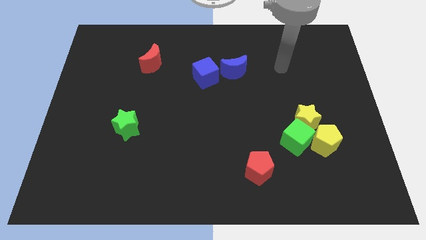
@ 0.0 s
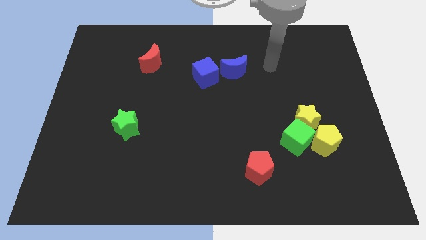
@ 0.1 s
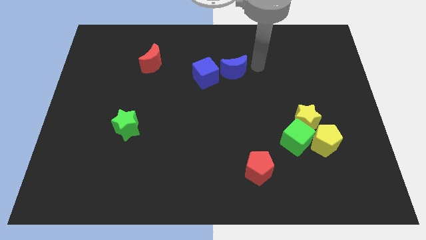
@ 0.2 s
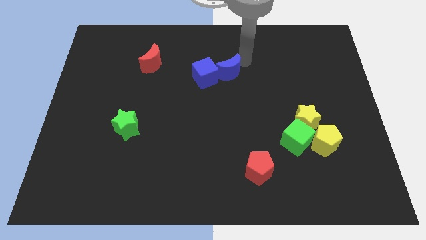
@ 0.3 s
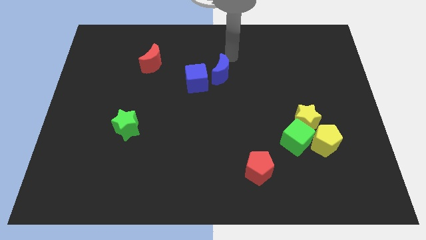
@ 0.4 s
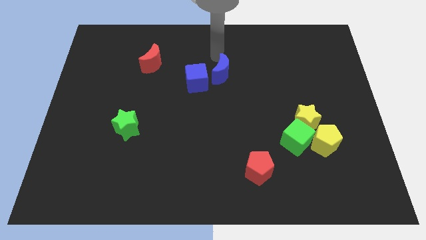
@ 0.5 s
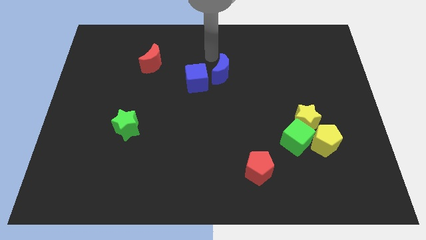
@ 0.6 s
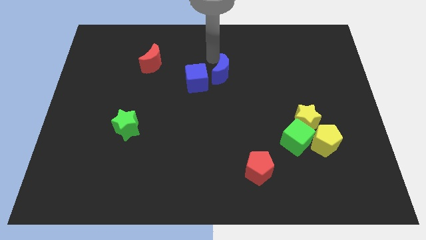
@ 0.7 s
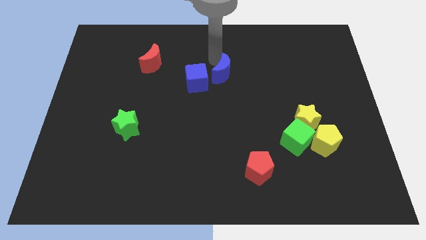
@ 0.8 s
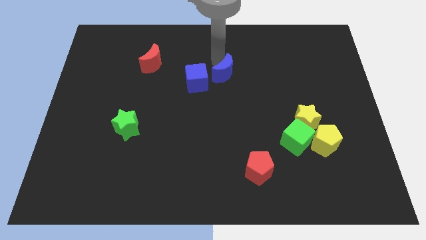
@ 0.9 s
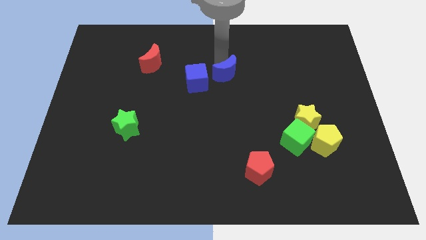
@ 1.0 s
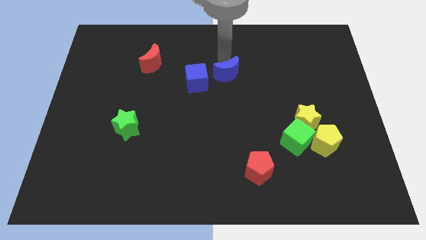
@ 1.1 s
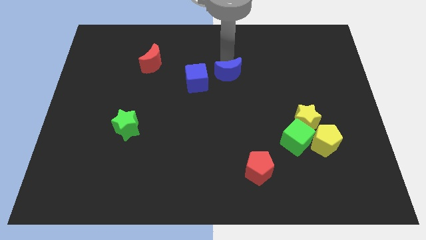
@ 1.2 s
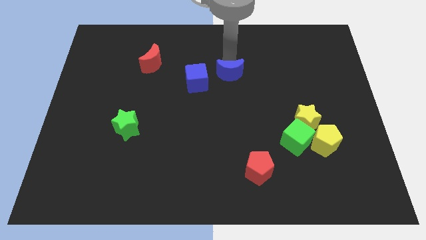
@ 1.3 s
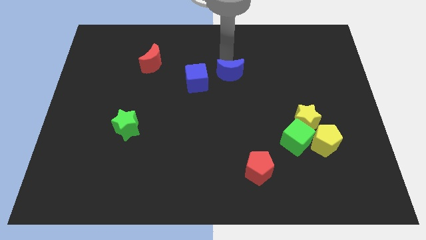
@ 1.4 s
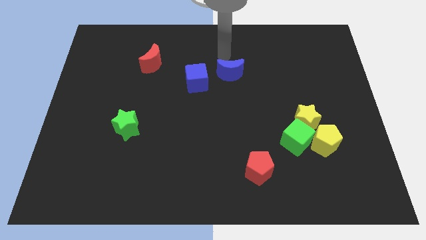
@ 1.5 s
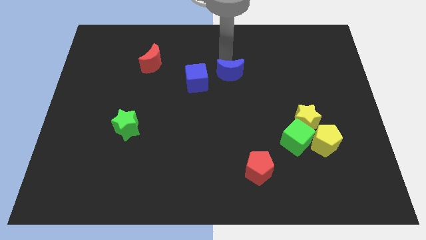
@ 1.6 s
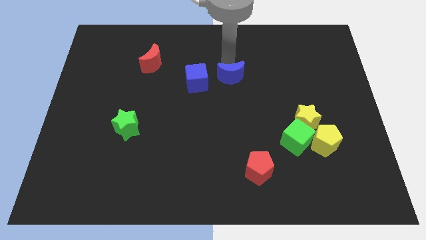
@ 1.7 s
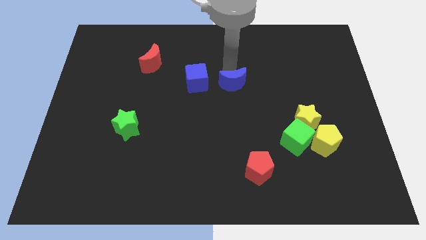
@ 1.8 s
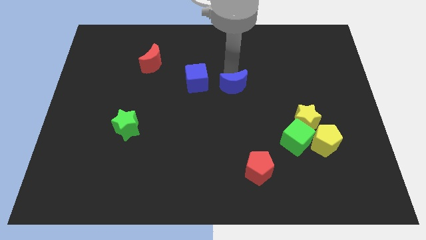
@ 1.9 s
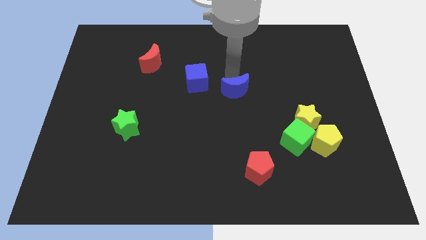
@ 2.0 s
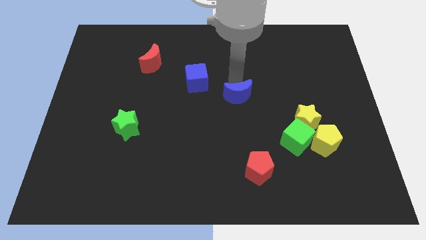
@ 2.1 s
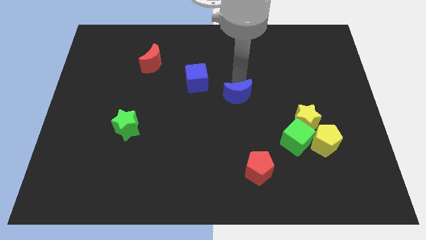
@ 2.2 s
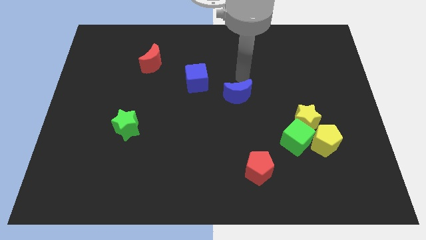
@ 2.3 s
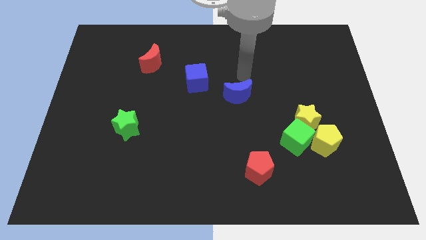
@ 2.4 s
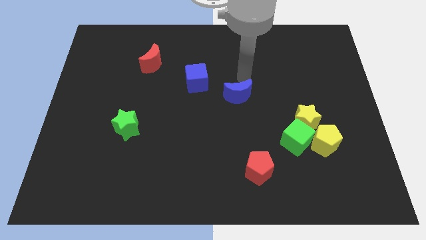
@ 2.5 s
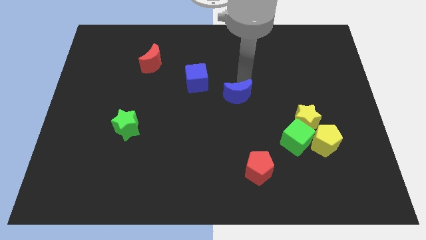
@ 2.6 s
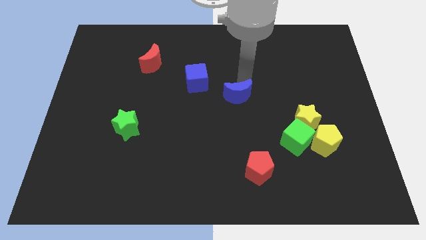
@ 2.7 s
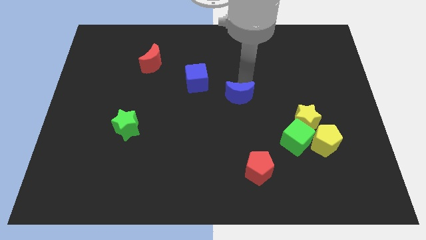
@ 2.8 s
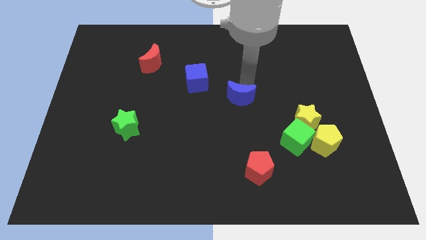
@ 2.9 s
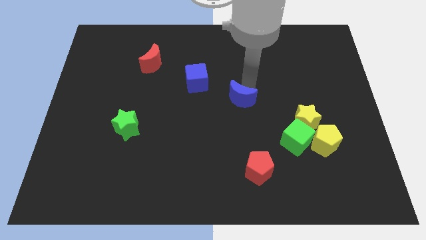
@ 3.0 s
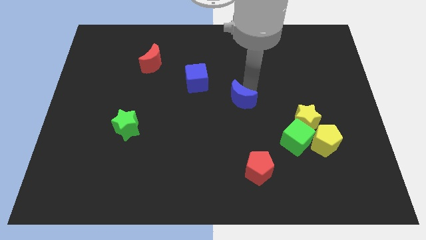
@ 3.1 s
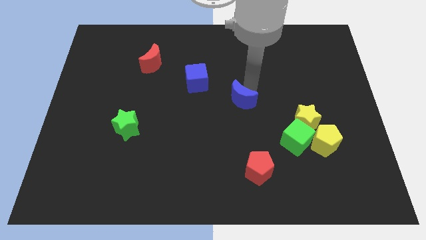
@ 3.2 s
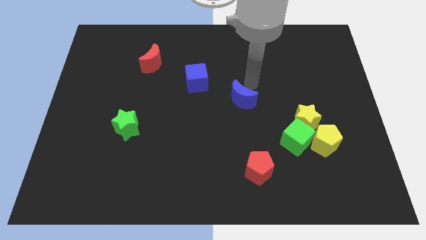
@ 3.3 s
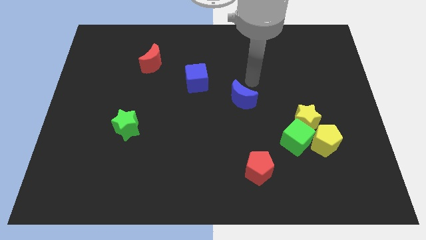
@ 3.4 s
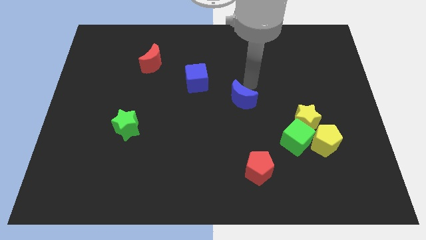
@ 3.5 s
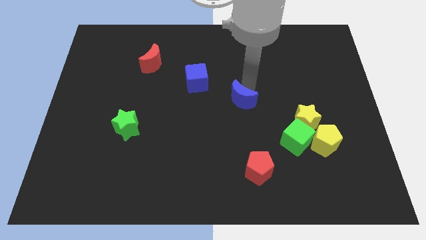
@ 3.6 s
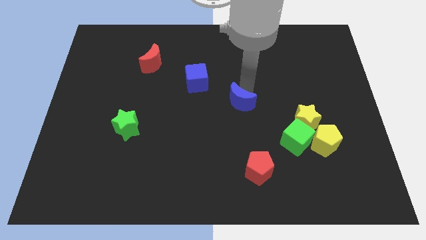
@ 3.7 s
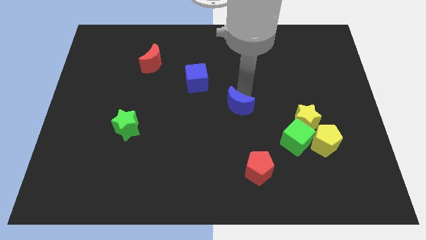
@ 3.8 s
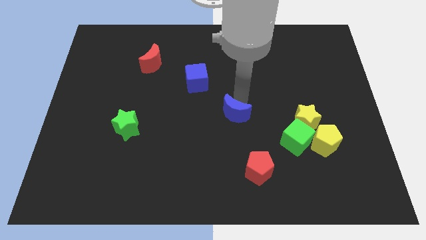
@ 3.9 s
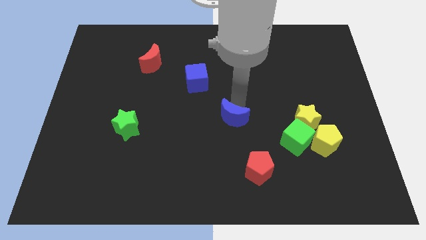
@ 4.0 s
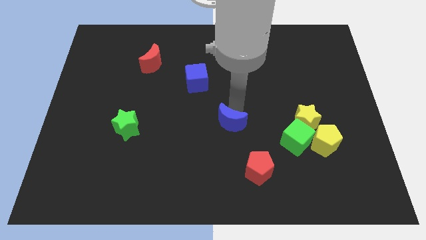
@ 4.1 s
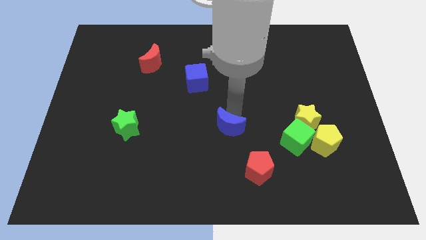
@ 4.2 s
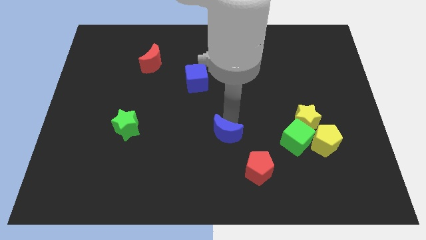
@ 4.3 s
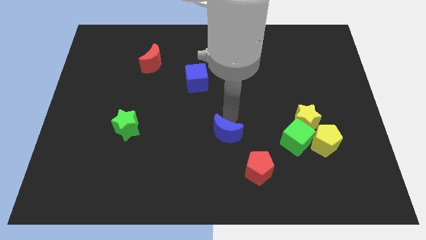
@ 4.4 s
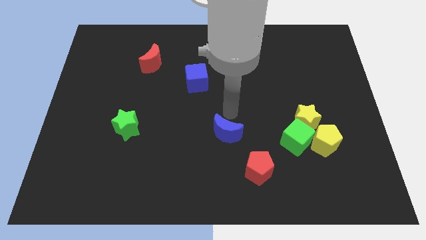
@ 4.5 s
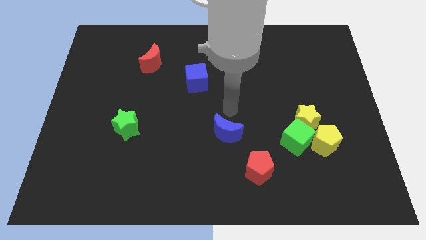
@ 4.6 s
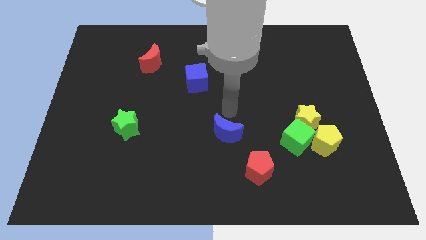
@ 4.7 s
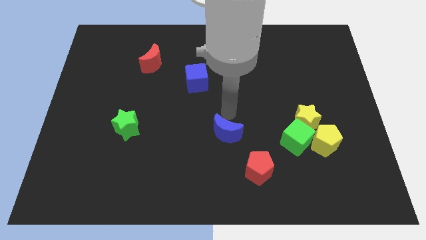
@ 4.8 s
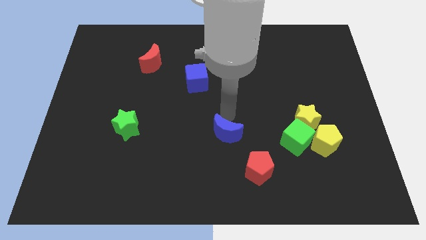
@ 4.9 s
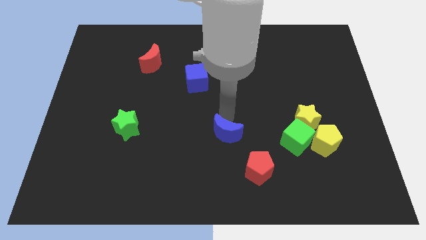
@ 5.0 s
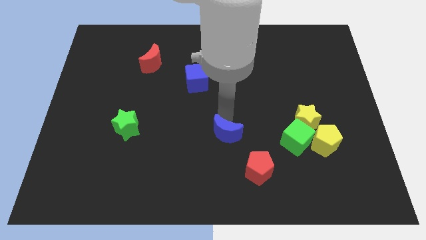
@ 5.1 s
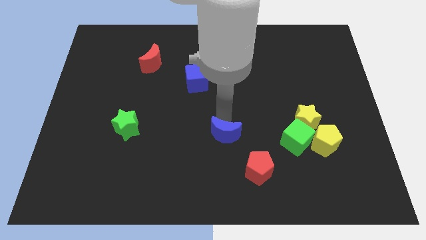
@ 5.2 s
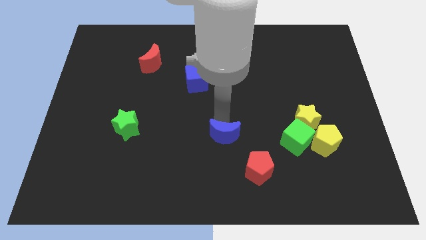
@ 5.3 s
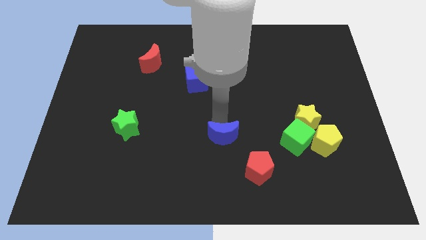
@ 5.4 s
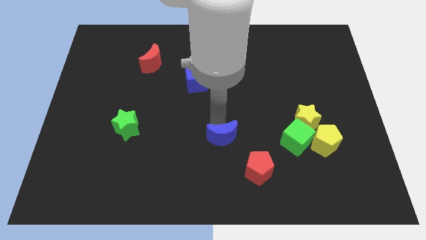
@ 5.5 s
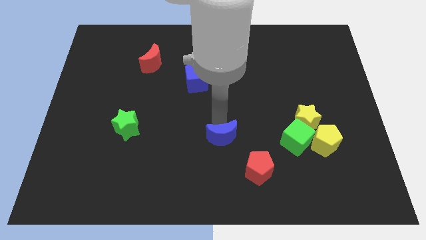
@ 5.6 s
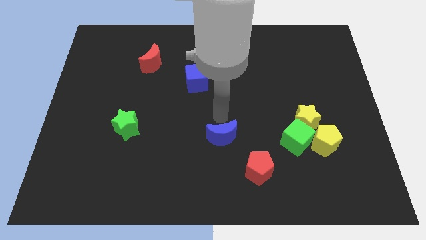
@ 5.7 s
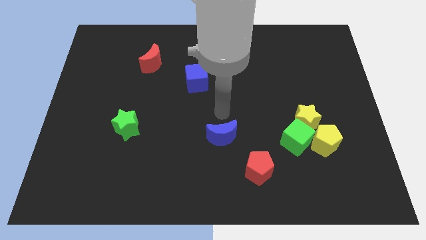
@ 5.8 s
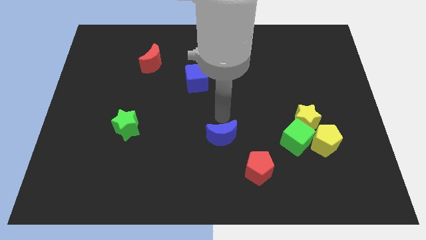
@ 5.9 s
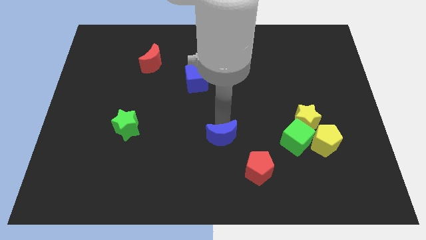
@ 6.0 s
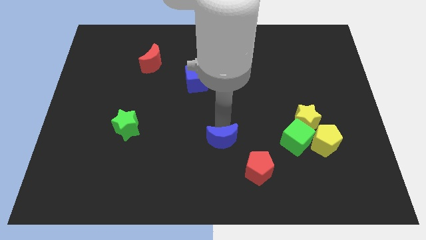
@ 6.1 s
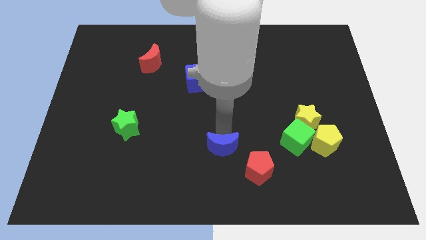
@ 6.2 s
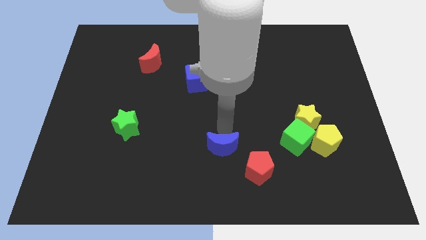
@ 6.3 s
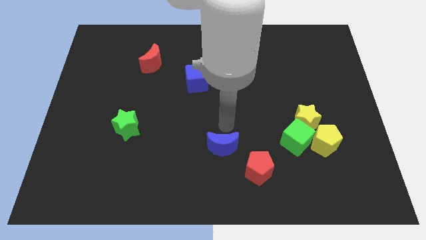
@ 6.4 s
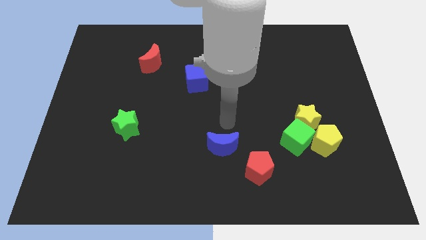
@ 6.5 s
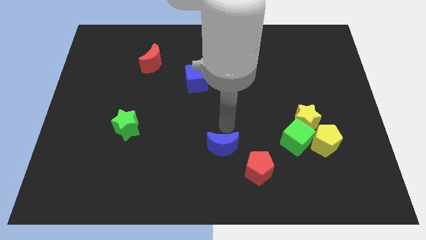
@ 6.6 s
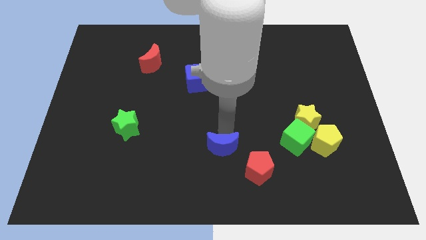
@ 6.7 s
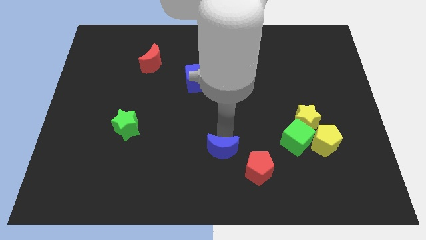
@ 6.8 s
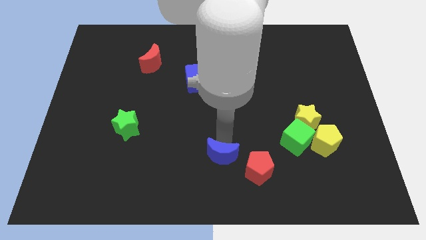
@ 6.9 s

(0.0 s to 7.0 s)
move the blue moon to the bottom side

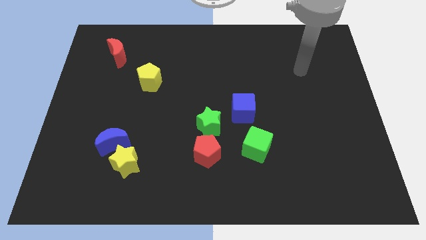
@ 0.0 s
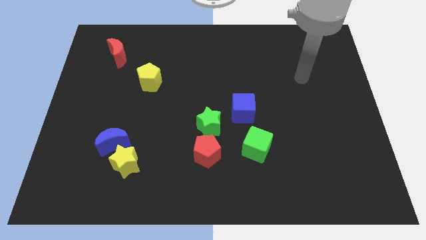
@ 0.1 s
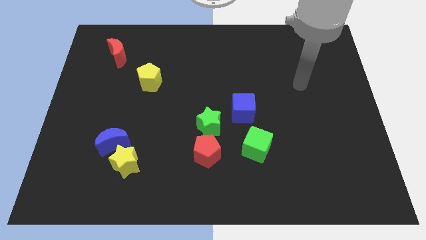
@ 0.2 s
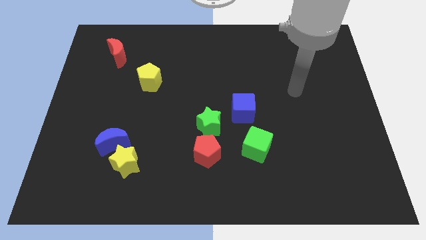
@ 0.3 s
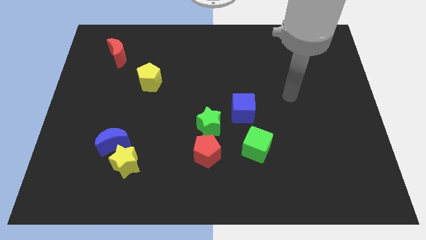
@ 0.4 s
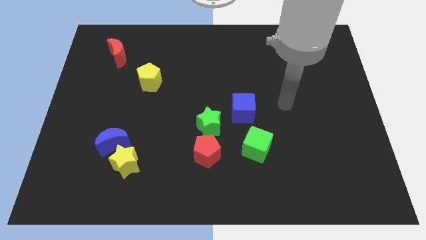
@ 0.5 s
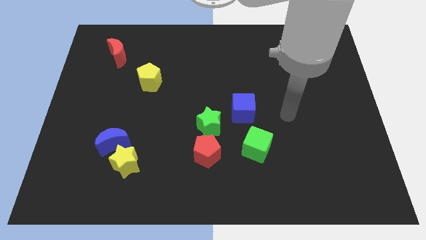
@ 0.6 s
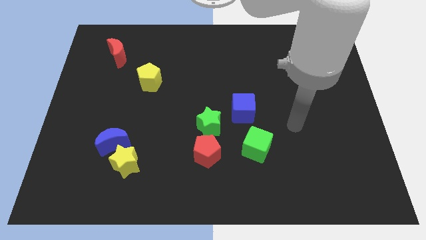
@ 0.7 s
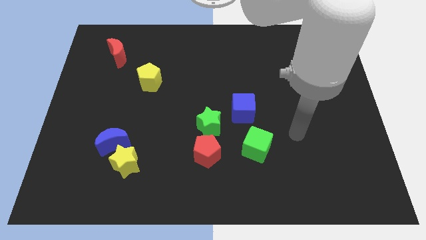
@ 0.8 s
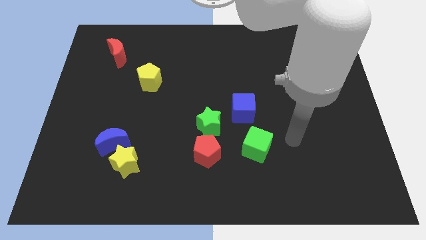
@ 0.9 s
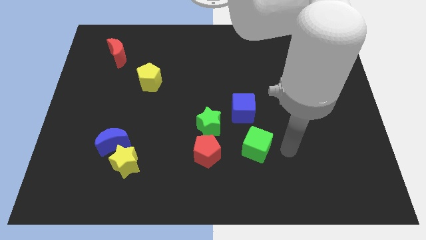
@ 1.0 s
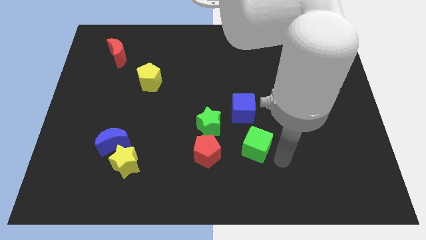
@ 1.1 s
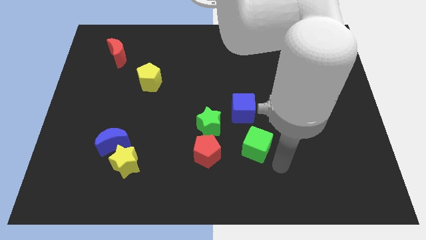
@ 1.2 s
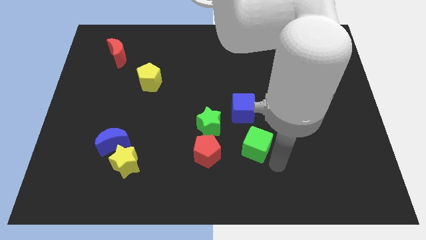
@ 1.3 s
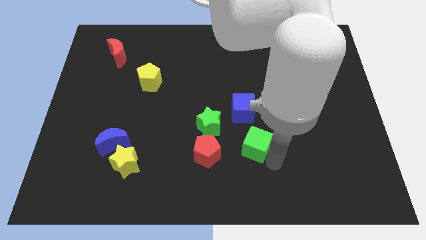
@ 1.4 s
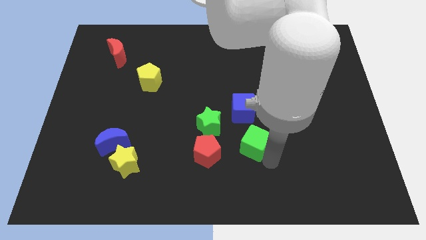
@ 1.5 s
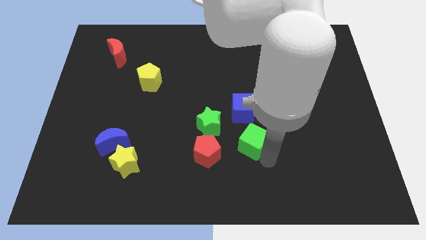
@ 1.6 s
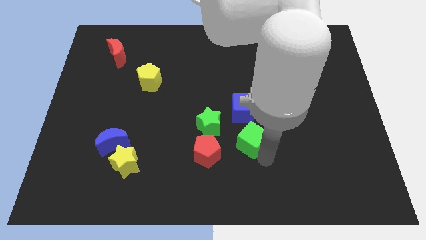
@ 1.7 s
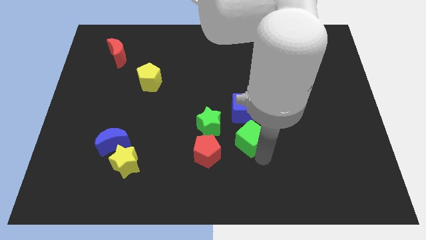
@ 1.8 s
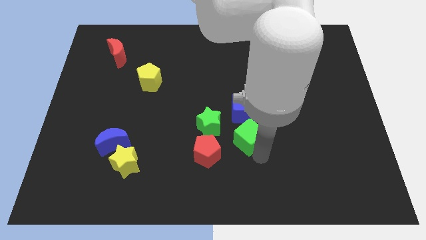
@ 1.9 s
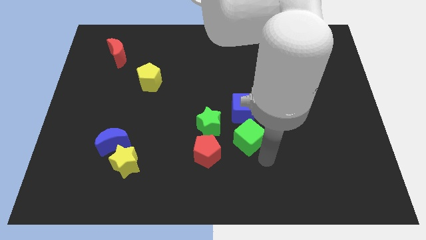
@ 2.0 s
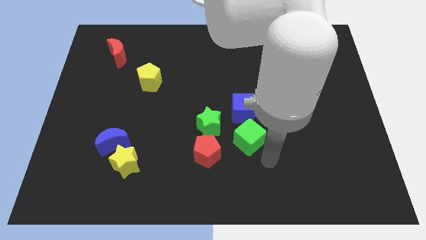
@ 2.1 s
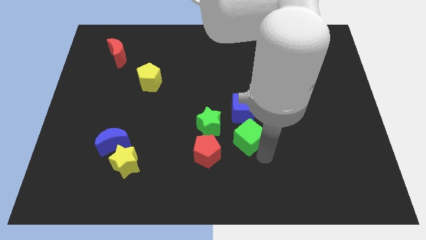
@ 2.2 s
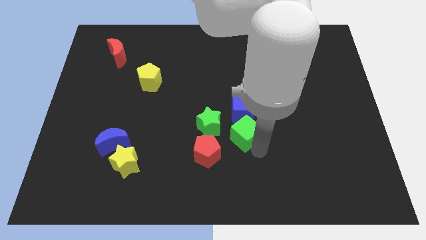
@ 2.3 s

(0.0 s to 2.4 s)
slide the green cube to the center of the board
